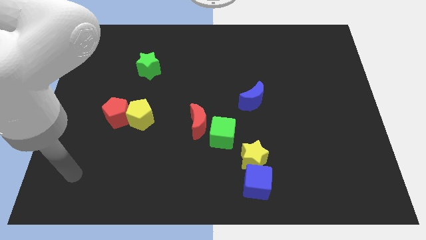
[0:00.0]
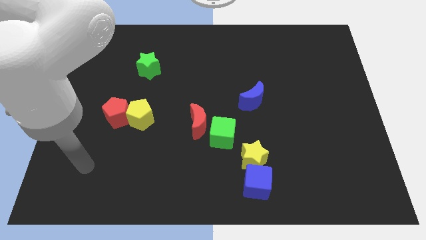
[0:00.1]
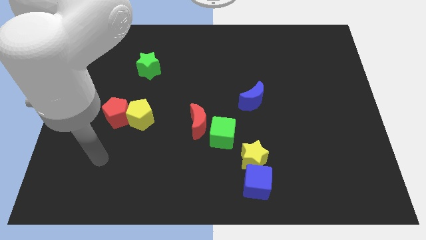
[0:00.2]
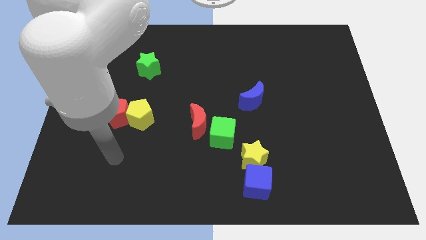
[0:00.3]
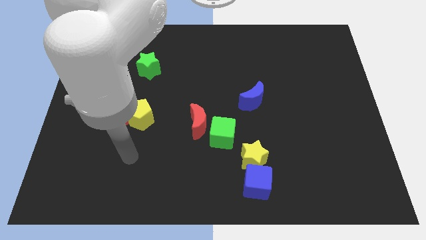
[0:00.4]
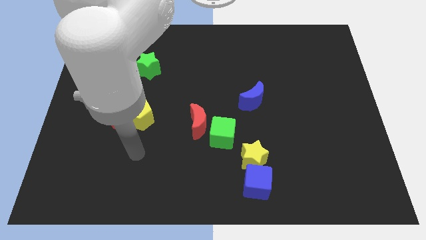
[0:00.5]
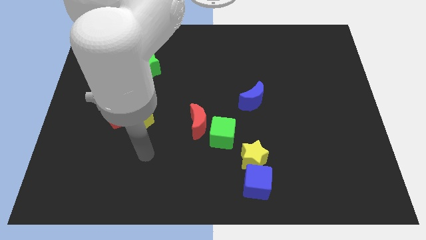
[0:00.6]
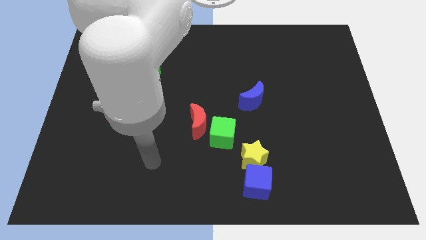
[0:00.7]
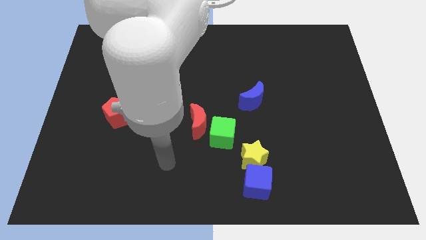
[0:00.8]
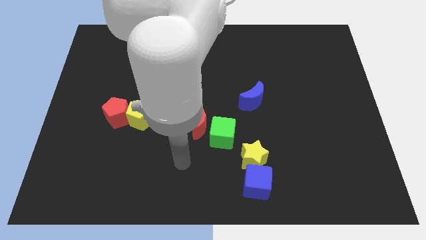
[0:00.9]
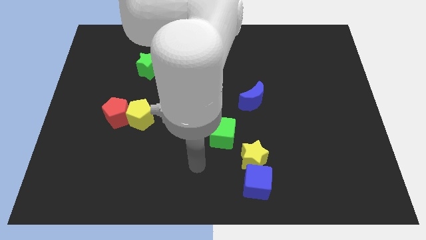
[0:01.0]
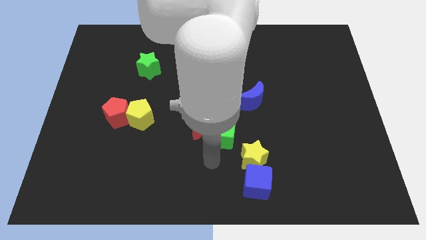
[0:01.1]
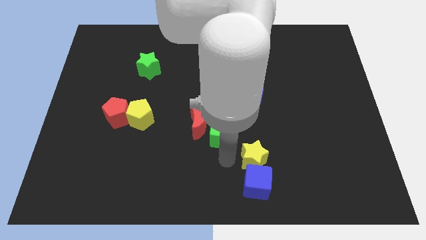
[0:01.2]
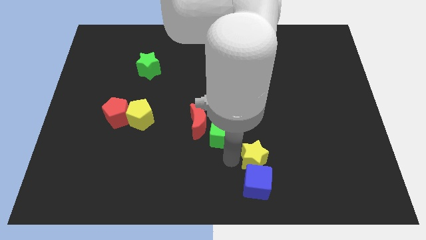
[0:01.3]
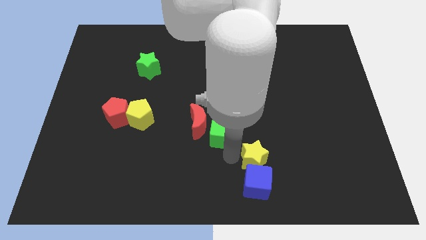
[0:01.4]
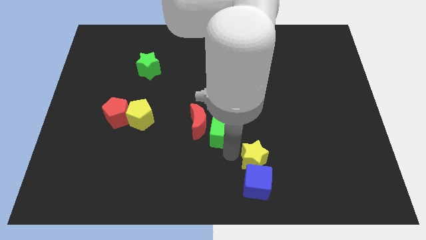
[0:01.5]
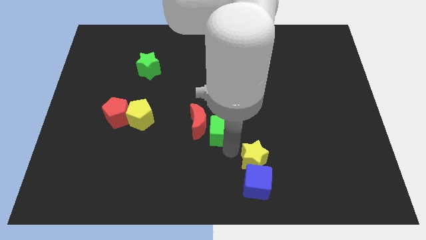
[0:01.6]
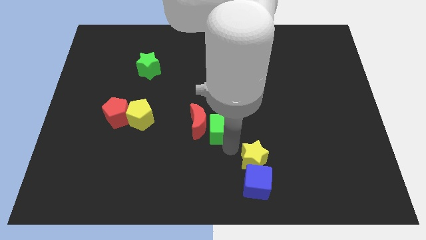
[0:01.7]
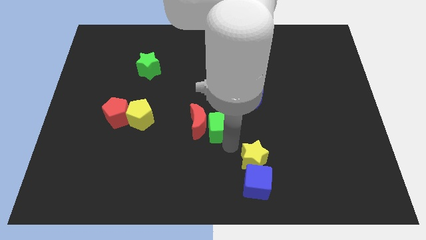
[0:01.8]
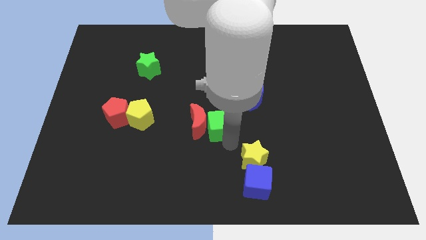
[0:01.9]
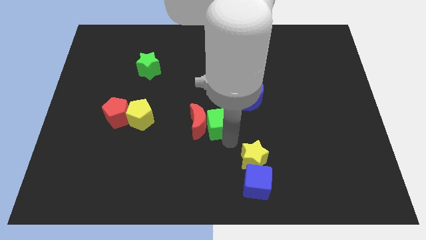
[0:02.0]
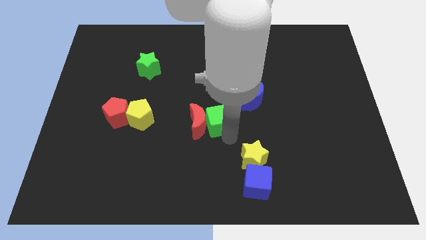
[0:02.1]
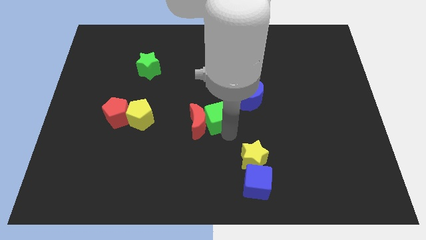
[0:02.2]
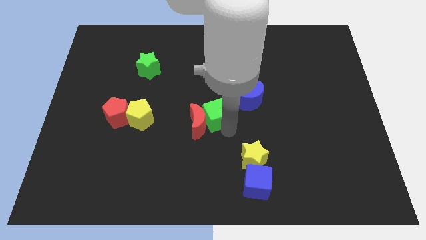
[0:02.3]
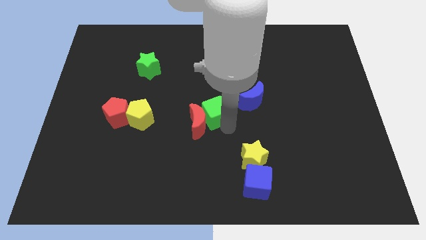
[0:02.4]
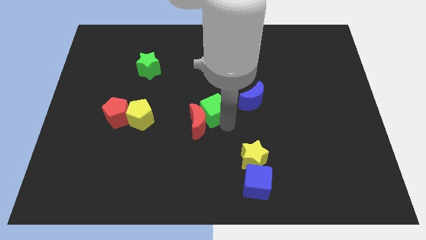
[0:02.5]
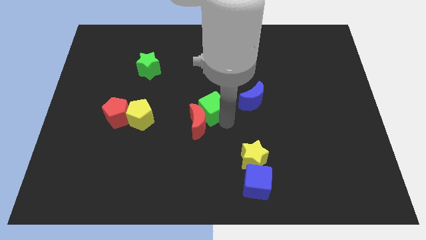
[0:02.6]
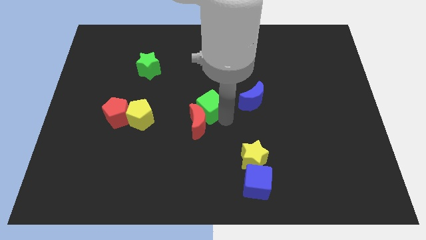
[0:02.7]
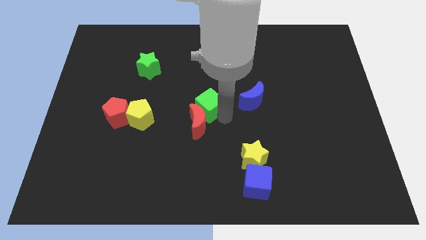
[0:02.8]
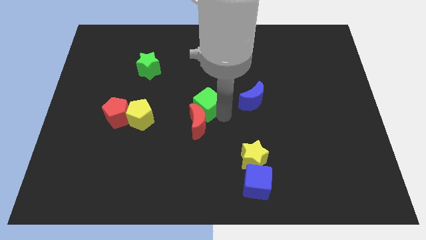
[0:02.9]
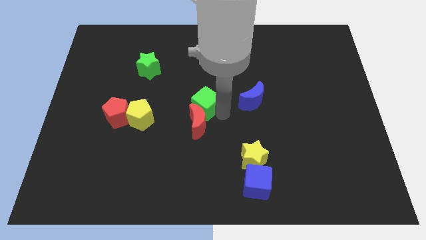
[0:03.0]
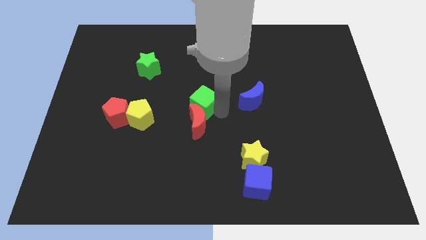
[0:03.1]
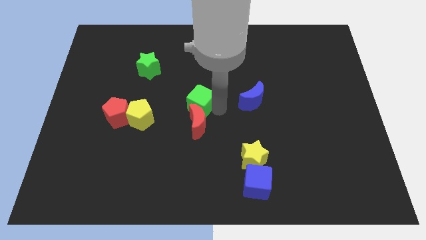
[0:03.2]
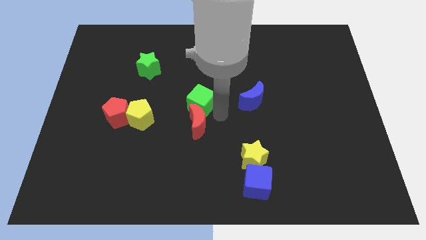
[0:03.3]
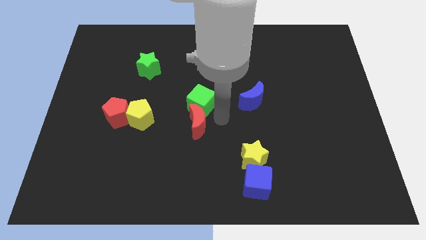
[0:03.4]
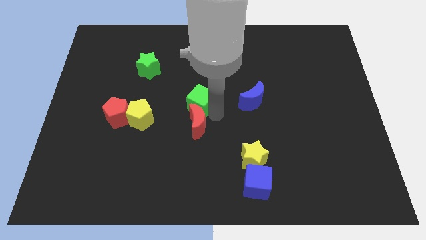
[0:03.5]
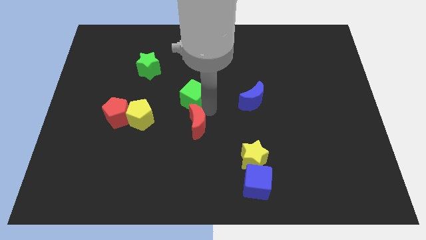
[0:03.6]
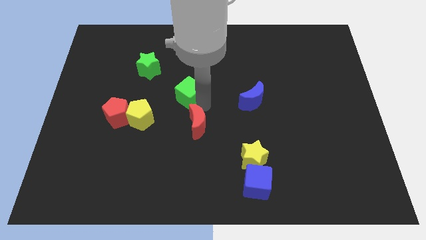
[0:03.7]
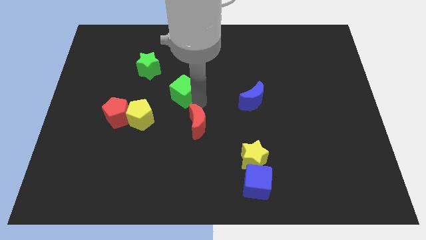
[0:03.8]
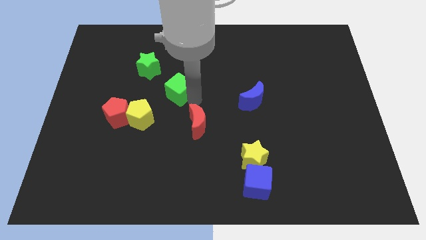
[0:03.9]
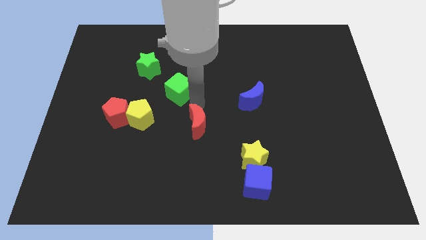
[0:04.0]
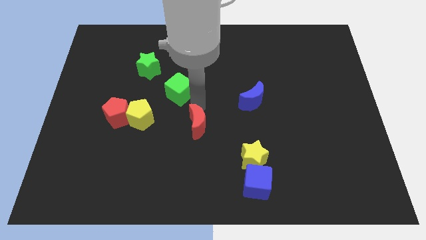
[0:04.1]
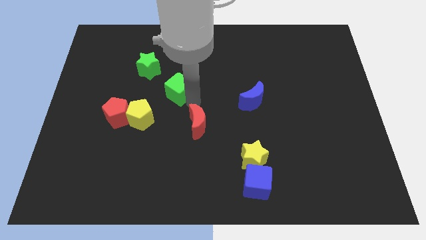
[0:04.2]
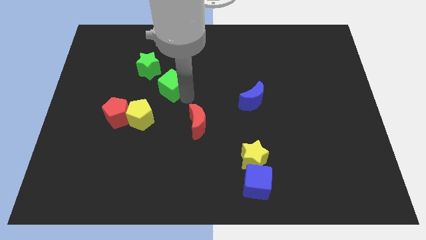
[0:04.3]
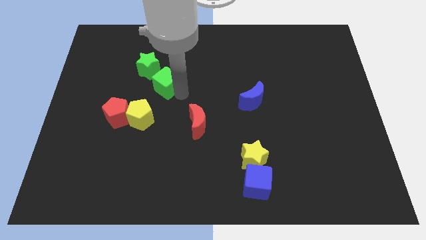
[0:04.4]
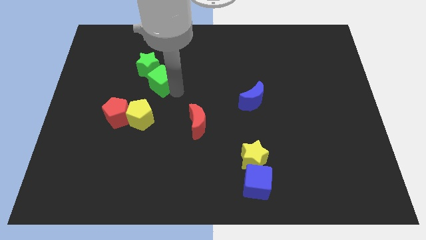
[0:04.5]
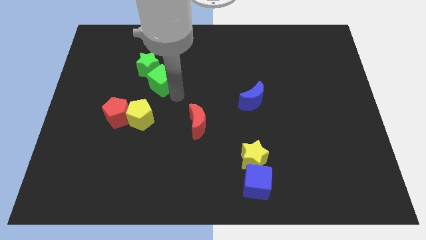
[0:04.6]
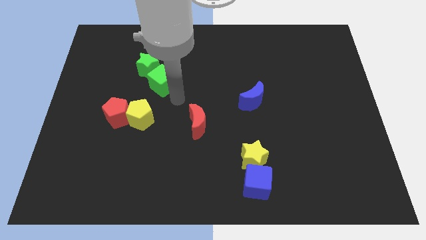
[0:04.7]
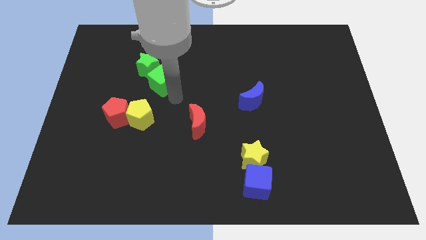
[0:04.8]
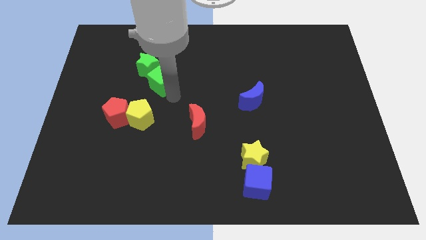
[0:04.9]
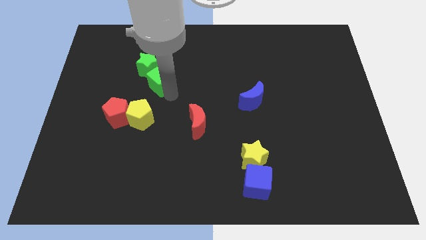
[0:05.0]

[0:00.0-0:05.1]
slide the green cube towards the green star

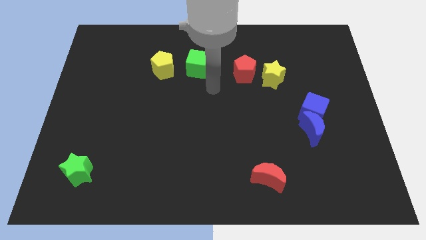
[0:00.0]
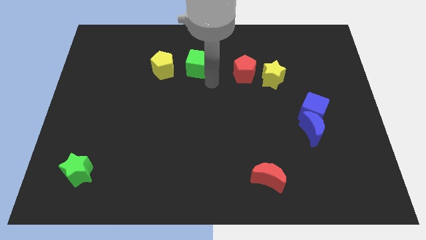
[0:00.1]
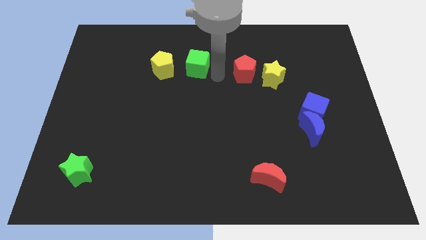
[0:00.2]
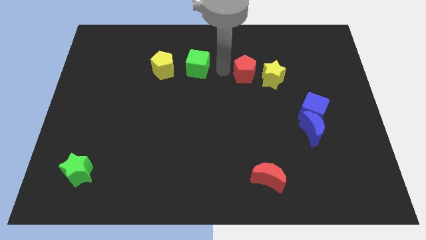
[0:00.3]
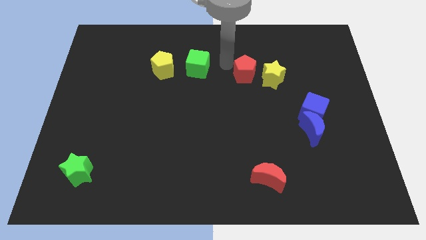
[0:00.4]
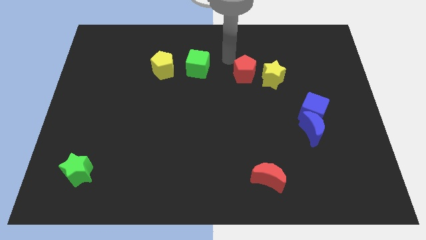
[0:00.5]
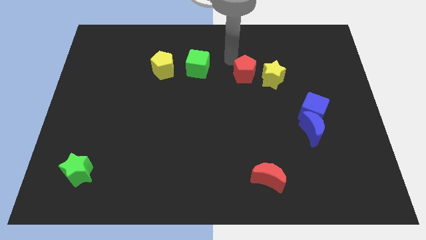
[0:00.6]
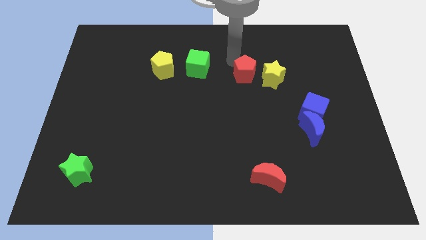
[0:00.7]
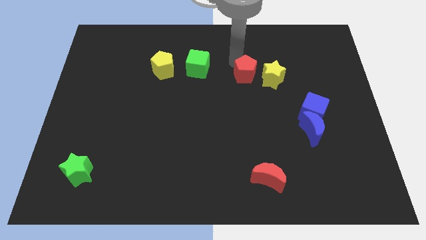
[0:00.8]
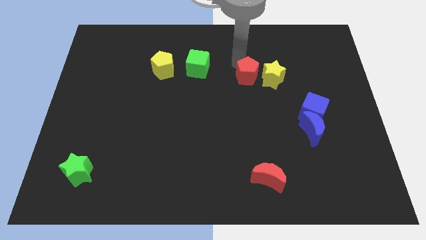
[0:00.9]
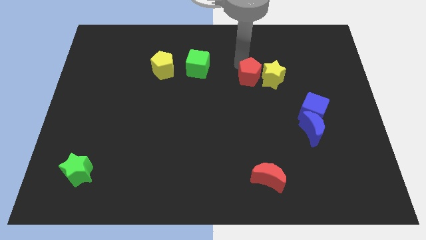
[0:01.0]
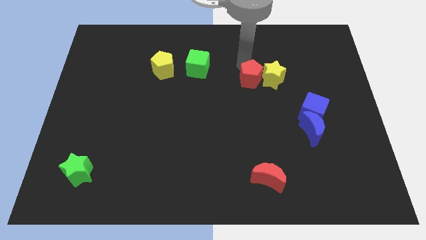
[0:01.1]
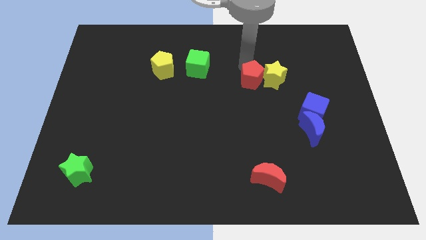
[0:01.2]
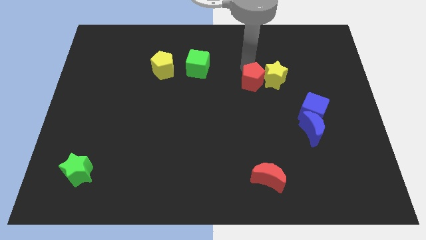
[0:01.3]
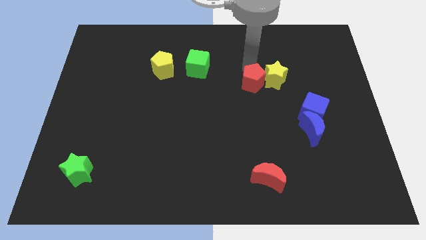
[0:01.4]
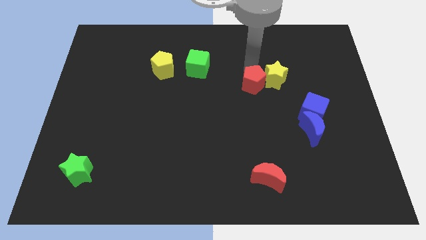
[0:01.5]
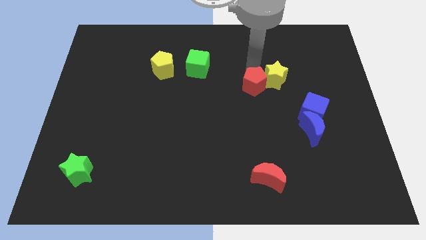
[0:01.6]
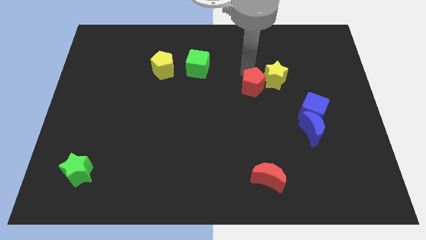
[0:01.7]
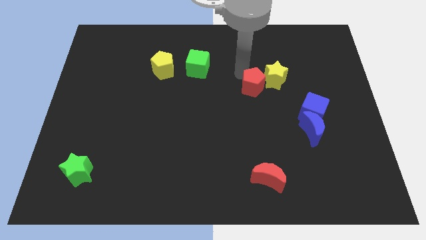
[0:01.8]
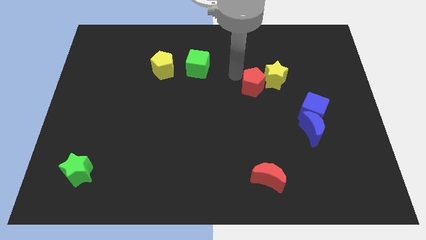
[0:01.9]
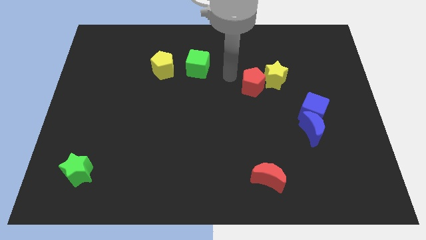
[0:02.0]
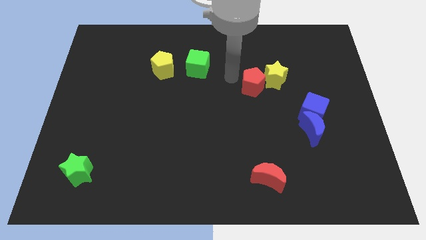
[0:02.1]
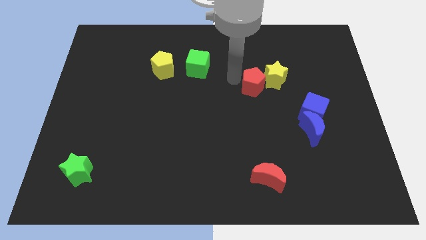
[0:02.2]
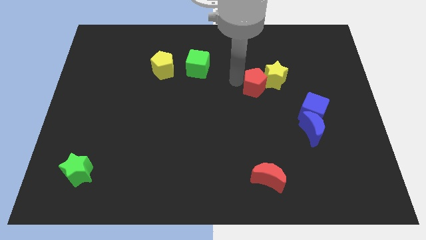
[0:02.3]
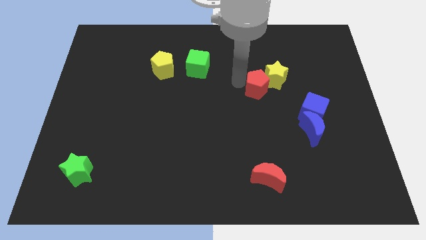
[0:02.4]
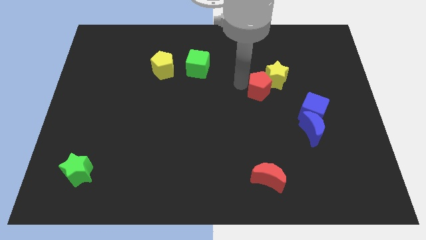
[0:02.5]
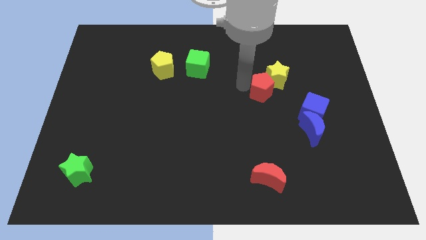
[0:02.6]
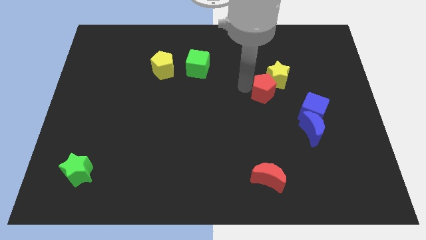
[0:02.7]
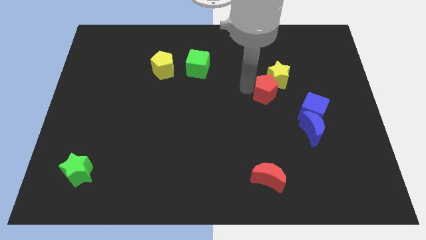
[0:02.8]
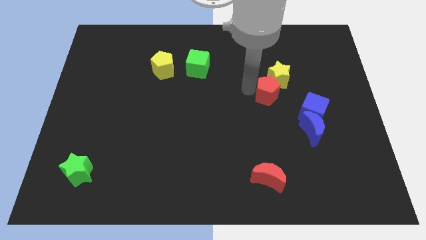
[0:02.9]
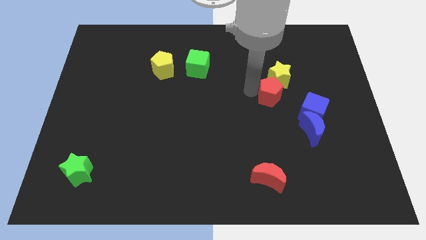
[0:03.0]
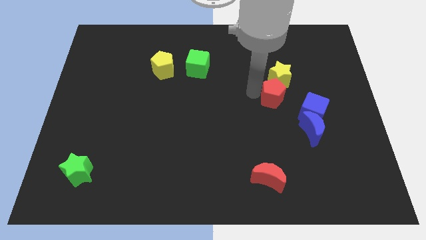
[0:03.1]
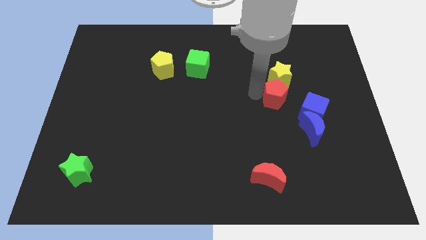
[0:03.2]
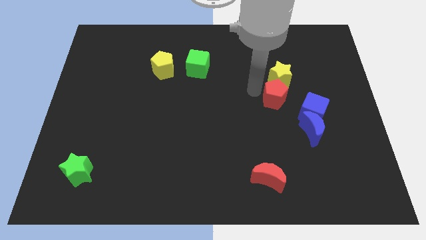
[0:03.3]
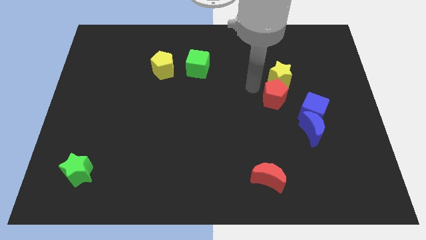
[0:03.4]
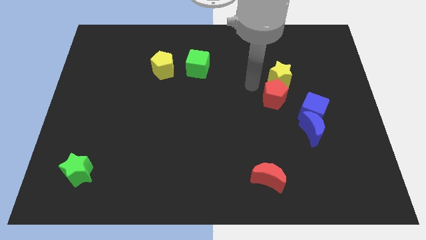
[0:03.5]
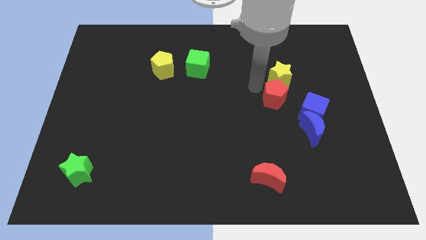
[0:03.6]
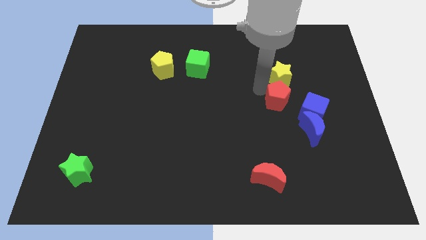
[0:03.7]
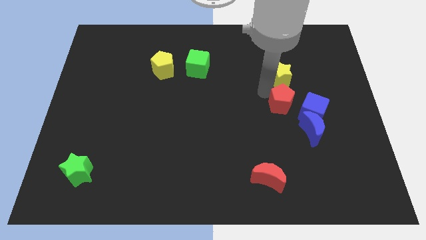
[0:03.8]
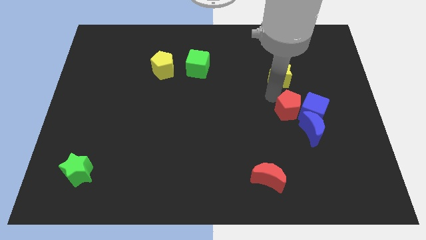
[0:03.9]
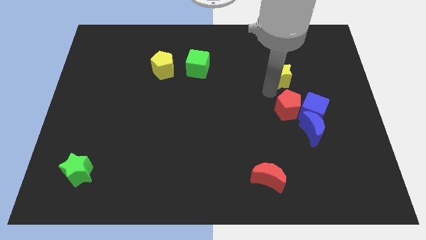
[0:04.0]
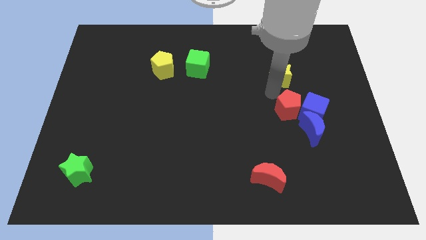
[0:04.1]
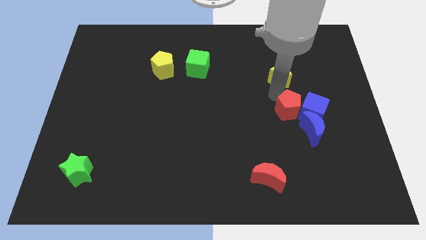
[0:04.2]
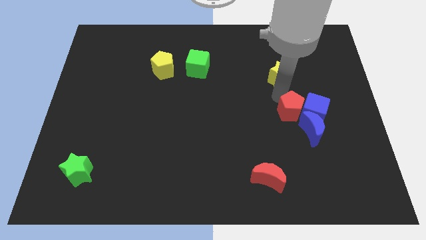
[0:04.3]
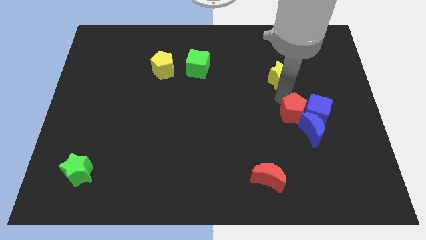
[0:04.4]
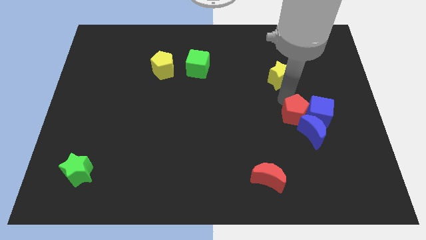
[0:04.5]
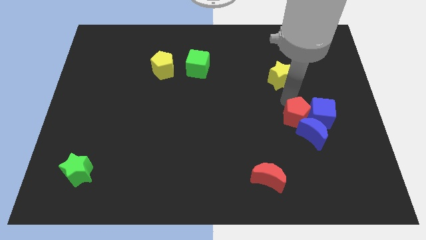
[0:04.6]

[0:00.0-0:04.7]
slide the red pentagon towards the blue moon
